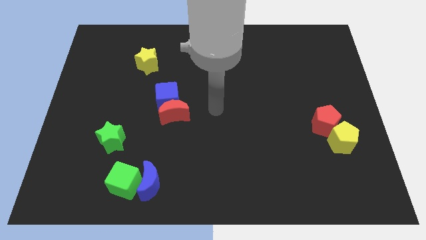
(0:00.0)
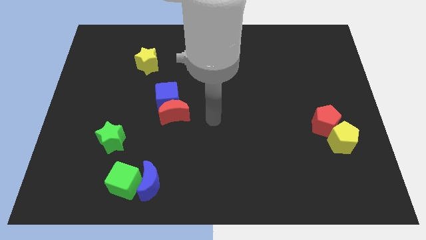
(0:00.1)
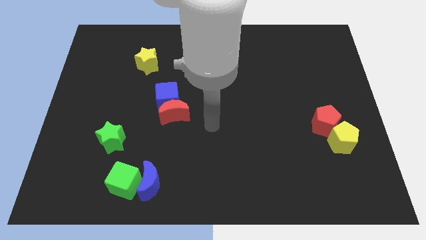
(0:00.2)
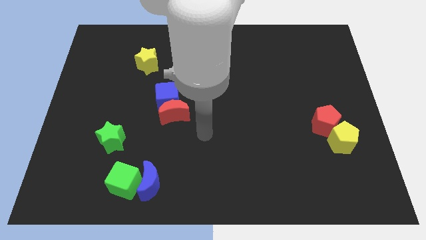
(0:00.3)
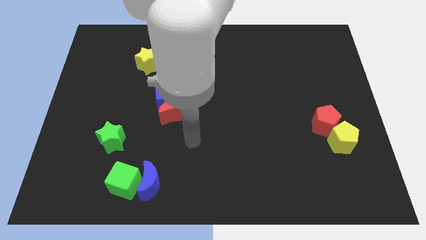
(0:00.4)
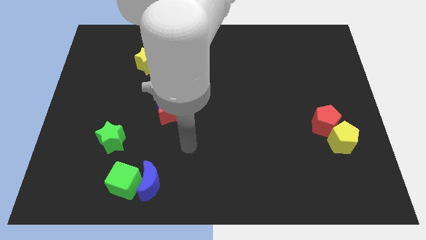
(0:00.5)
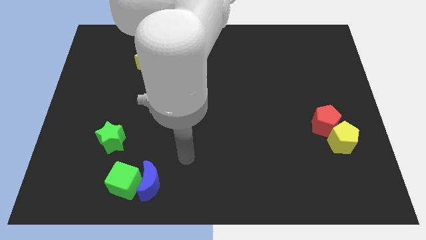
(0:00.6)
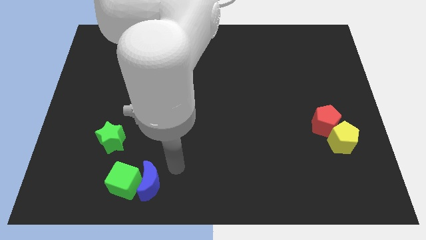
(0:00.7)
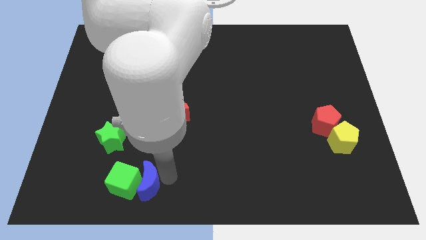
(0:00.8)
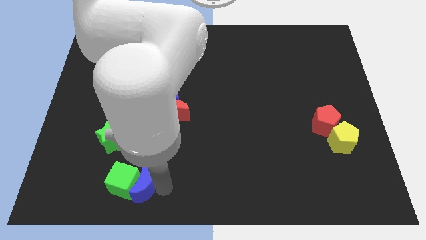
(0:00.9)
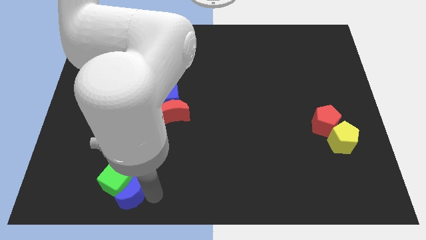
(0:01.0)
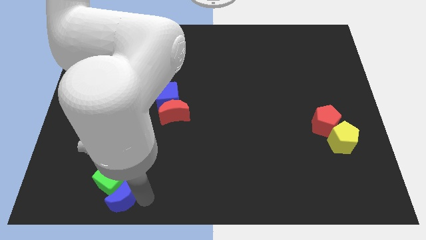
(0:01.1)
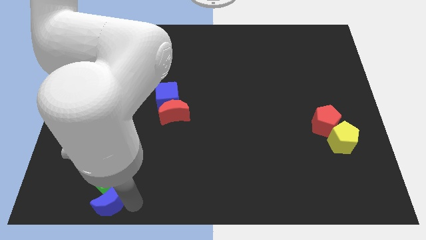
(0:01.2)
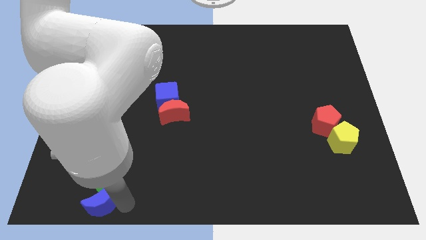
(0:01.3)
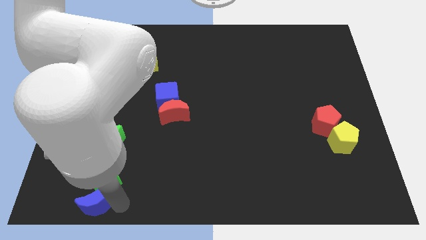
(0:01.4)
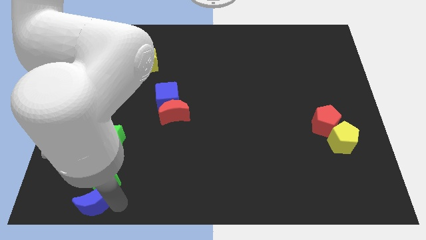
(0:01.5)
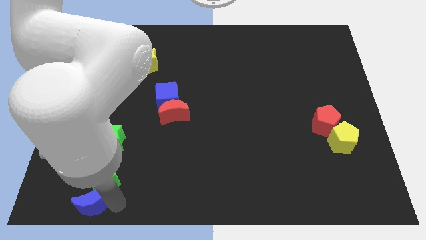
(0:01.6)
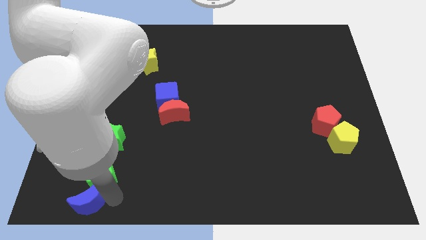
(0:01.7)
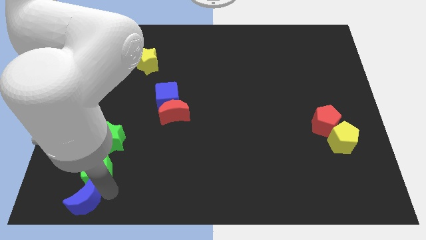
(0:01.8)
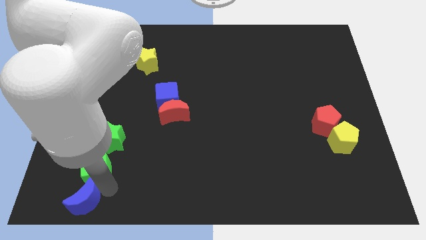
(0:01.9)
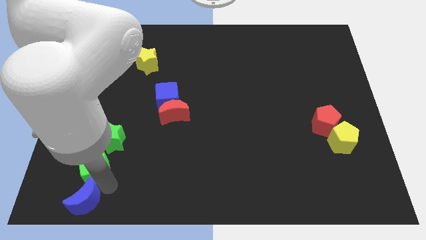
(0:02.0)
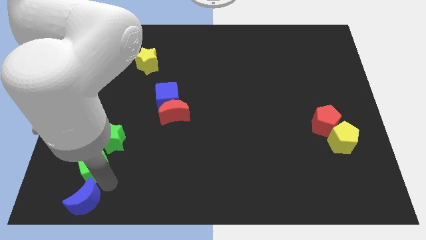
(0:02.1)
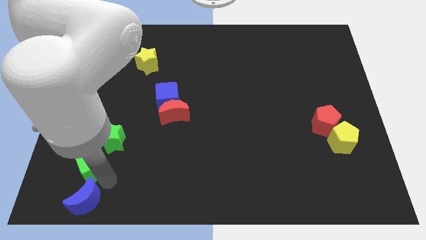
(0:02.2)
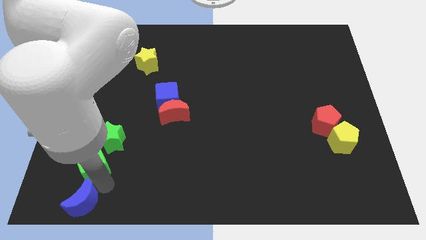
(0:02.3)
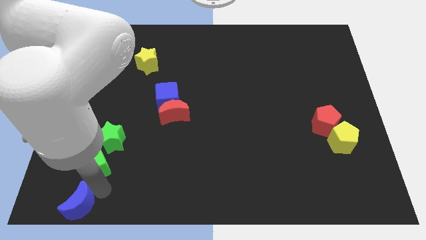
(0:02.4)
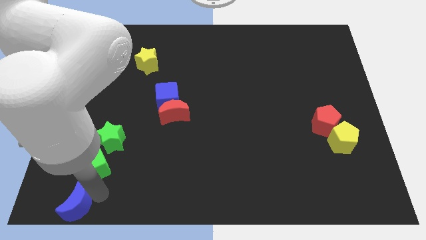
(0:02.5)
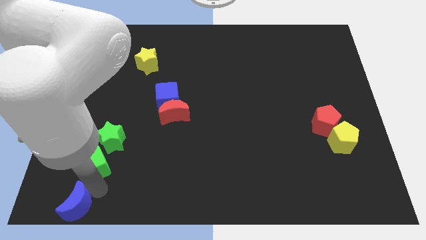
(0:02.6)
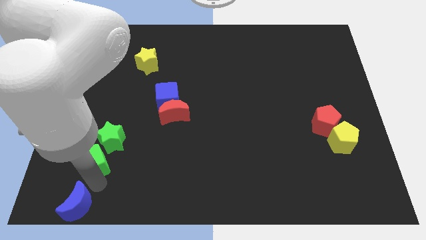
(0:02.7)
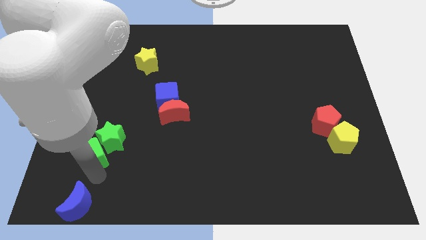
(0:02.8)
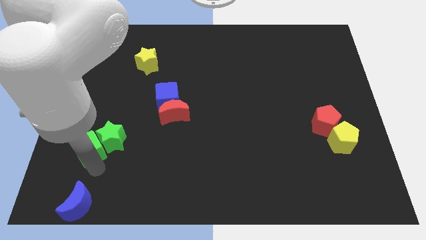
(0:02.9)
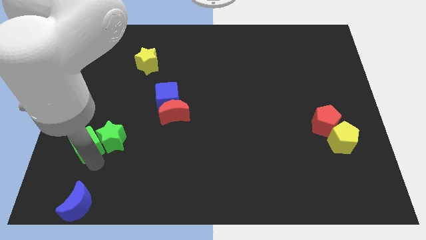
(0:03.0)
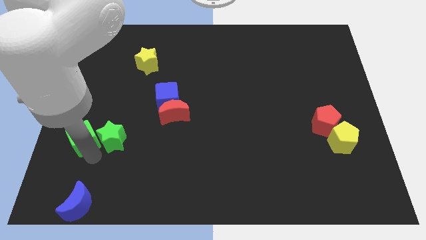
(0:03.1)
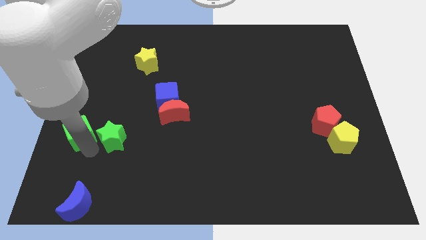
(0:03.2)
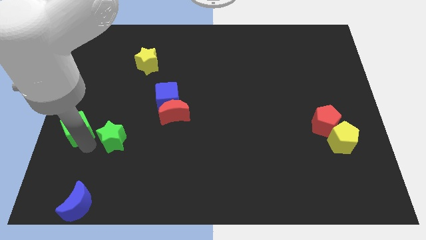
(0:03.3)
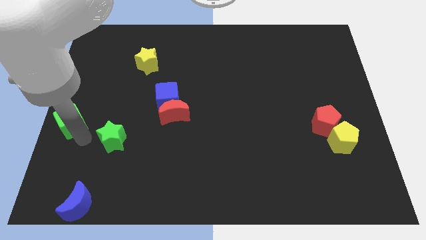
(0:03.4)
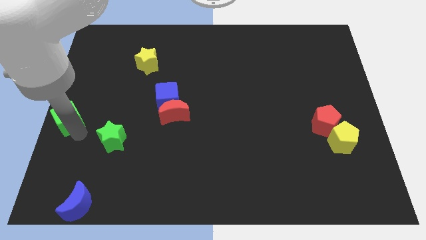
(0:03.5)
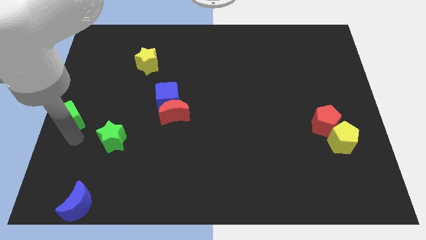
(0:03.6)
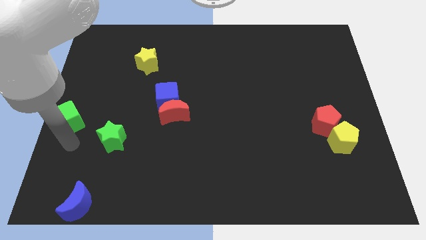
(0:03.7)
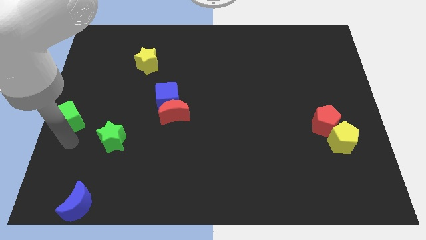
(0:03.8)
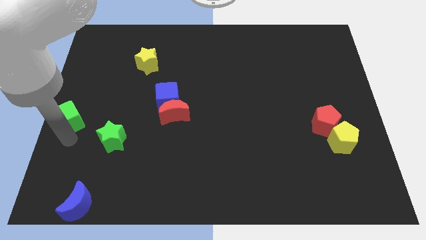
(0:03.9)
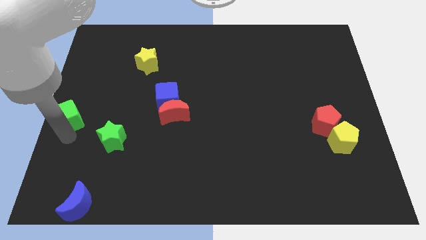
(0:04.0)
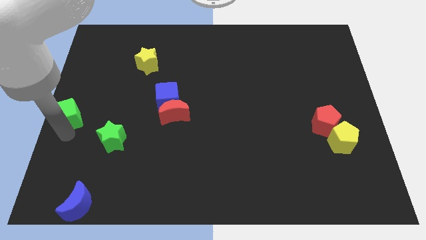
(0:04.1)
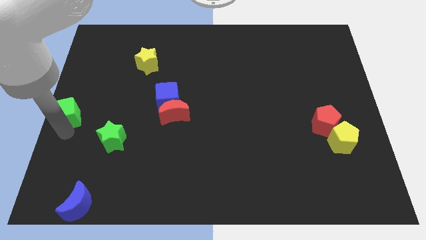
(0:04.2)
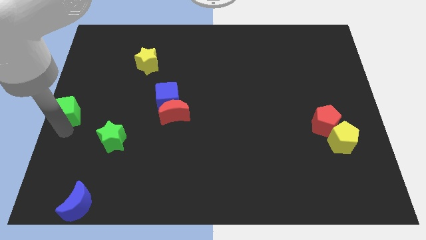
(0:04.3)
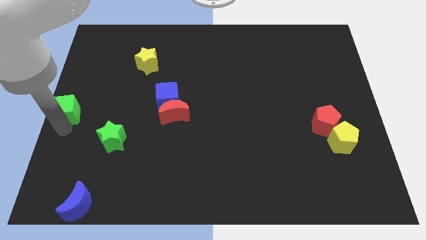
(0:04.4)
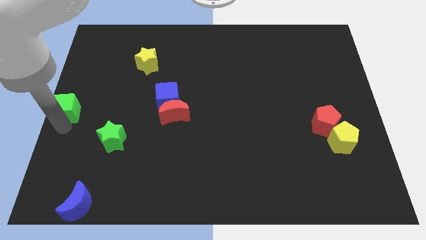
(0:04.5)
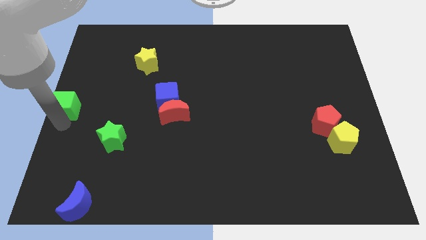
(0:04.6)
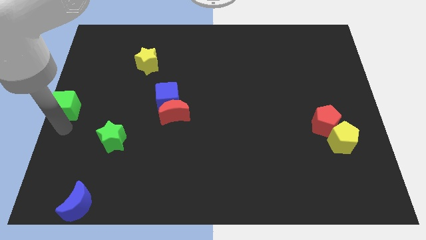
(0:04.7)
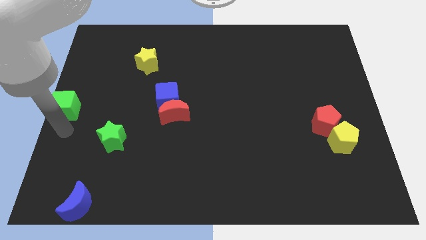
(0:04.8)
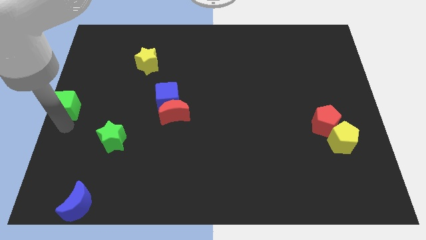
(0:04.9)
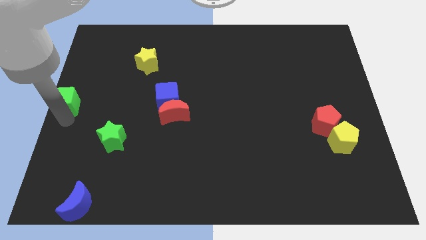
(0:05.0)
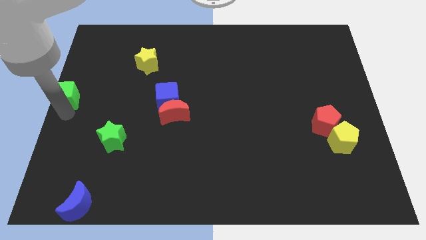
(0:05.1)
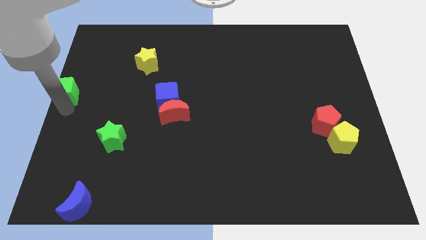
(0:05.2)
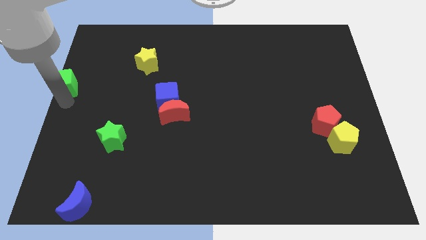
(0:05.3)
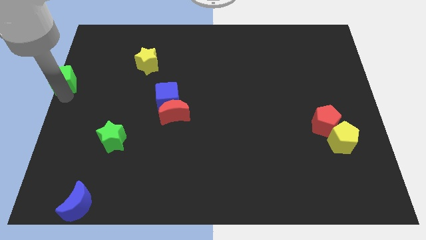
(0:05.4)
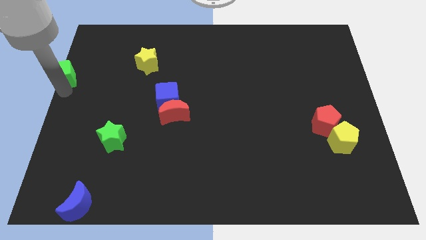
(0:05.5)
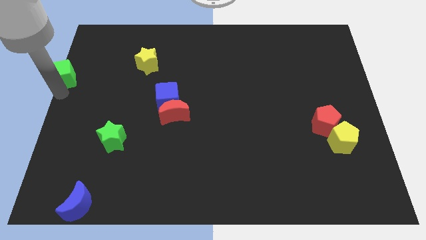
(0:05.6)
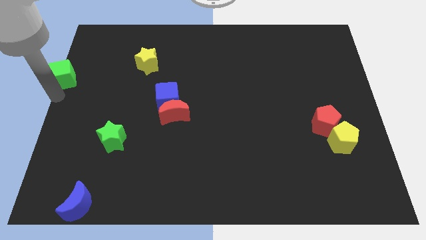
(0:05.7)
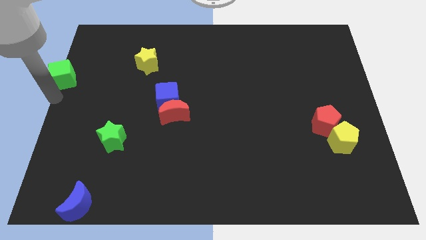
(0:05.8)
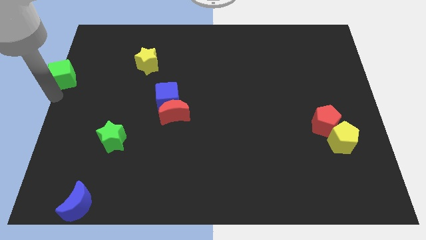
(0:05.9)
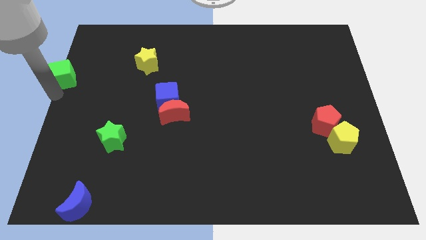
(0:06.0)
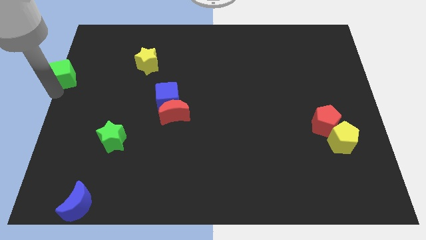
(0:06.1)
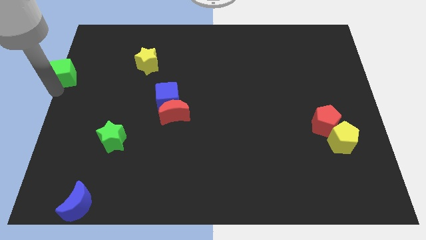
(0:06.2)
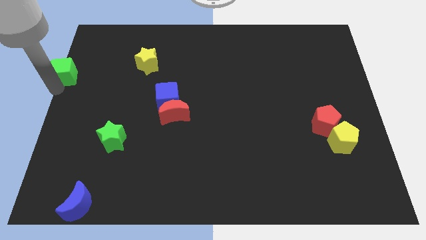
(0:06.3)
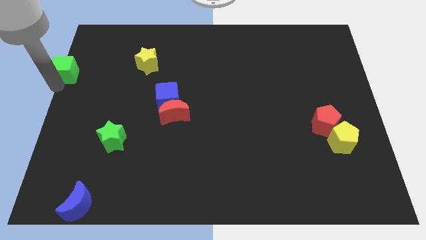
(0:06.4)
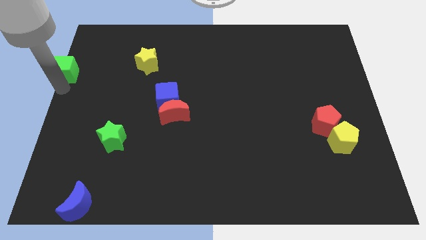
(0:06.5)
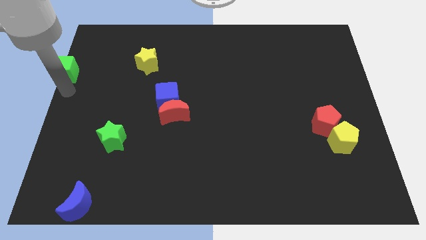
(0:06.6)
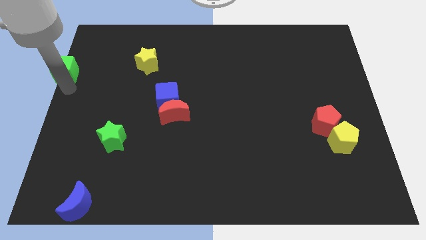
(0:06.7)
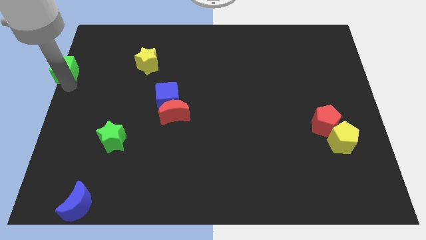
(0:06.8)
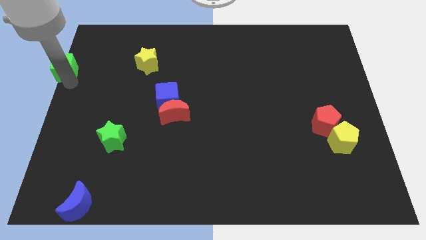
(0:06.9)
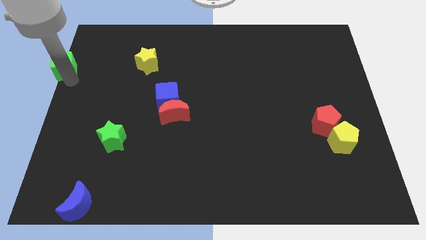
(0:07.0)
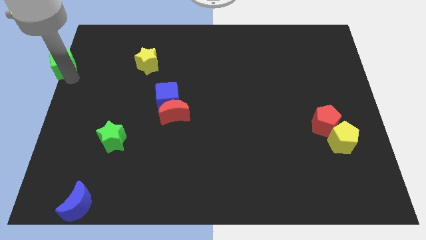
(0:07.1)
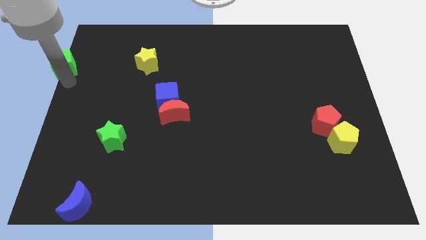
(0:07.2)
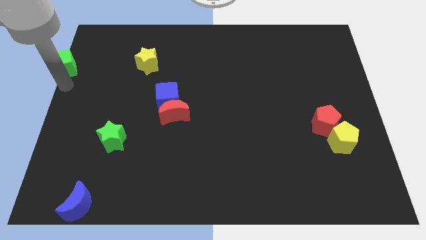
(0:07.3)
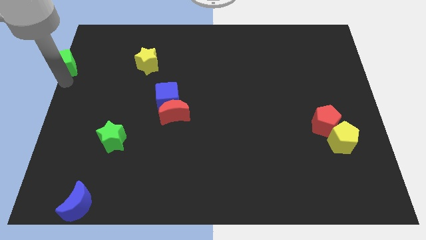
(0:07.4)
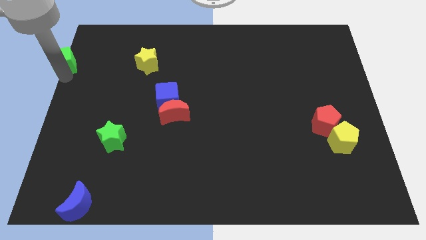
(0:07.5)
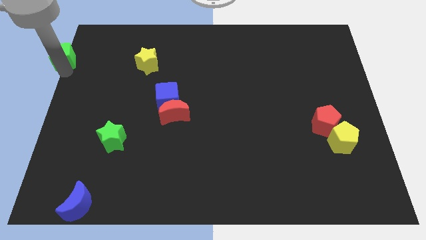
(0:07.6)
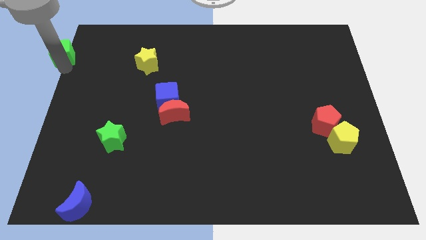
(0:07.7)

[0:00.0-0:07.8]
move the green cube to the top left
